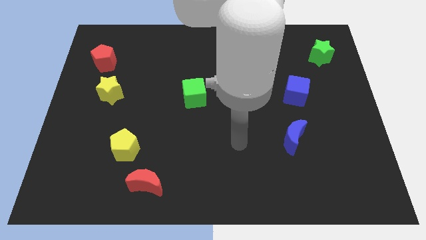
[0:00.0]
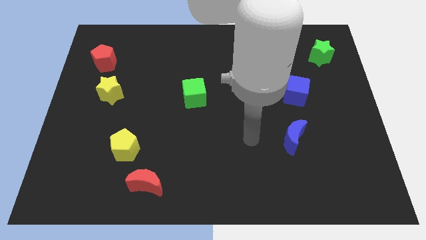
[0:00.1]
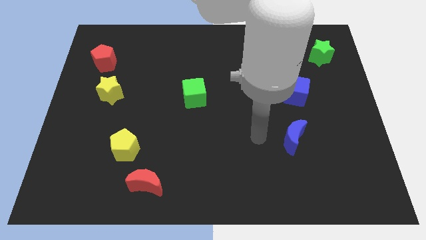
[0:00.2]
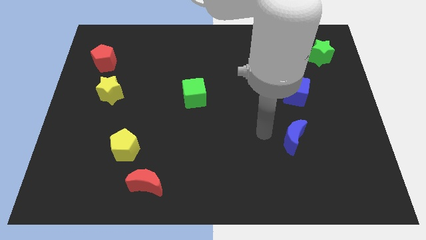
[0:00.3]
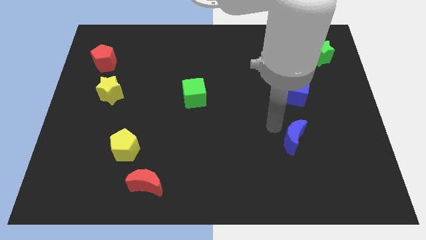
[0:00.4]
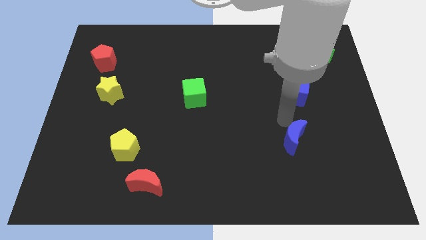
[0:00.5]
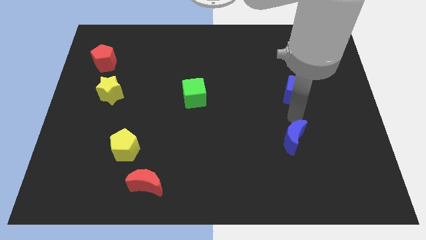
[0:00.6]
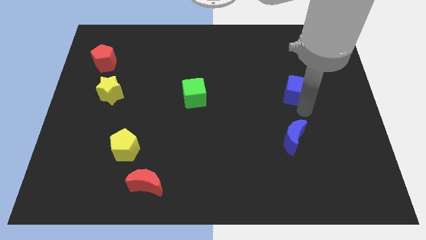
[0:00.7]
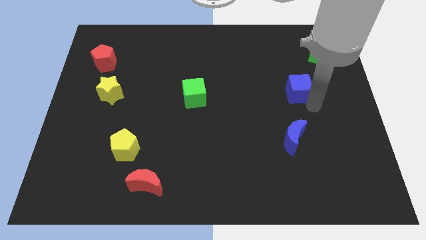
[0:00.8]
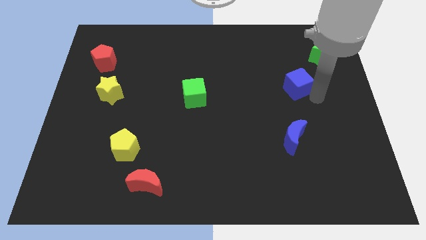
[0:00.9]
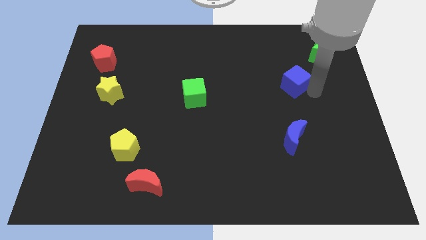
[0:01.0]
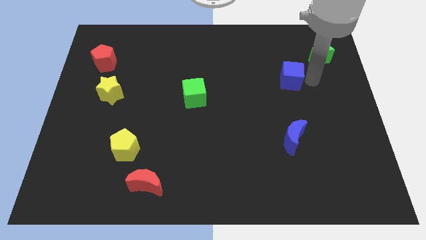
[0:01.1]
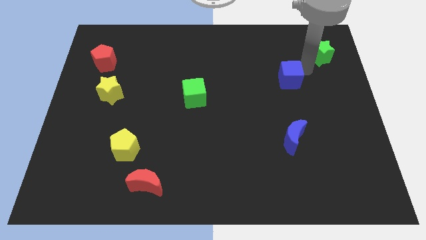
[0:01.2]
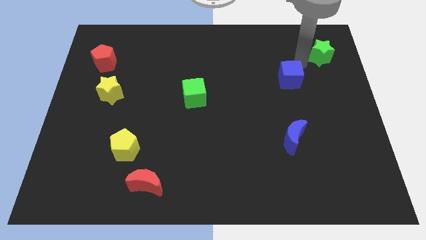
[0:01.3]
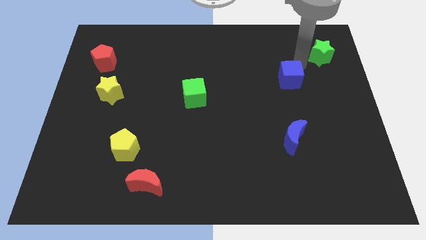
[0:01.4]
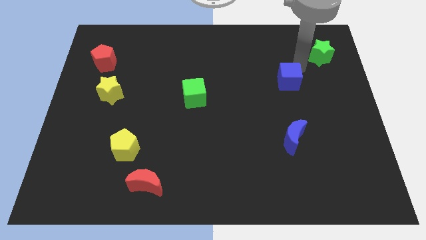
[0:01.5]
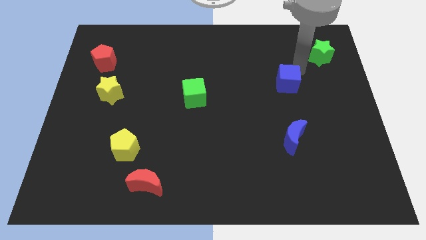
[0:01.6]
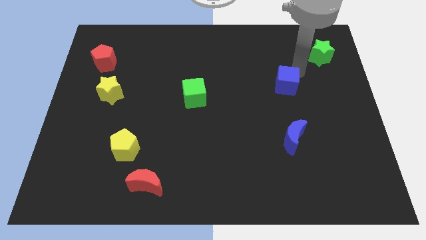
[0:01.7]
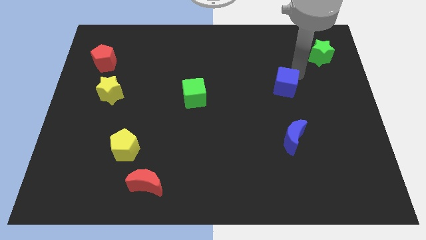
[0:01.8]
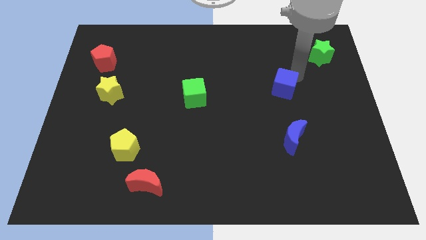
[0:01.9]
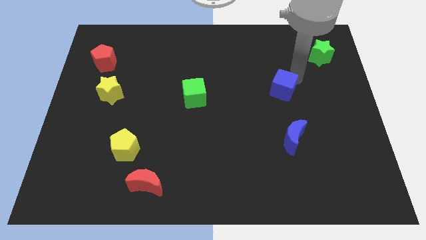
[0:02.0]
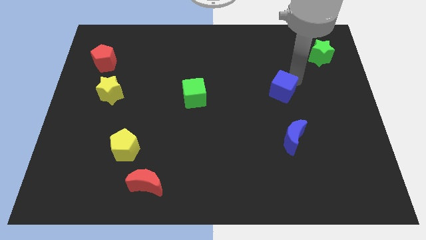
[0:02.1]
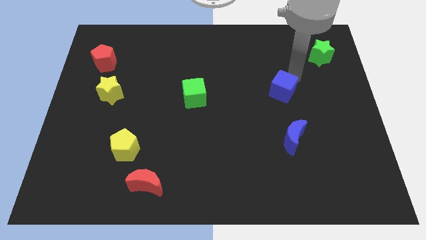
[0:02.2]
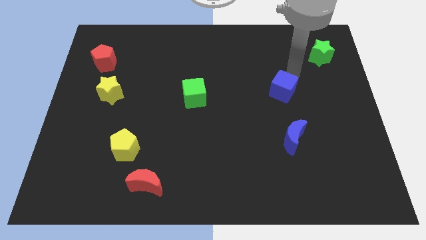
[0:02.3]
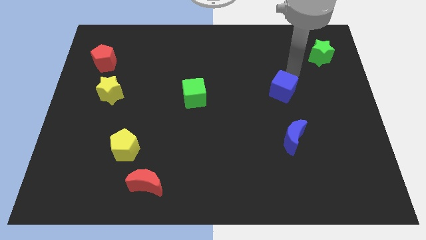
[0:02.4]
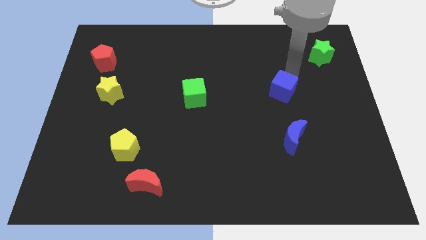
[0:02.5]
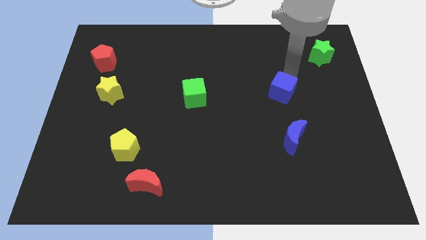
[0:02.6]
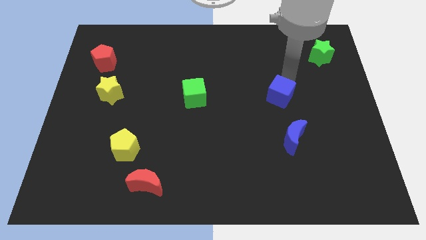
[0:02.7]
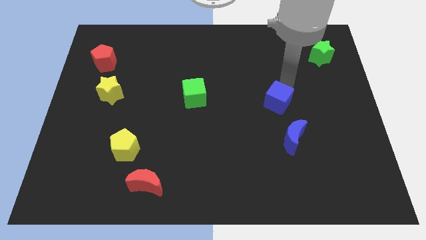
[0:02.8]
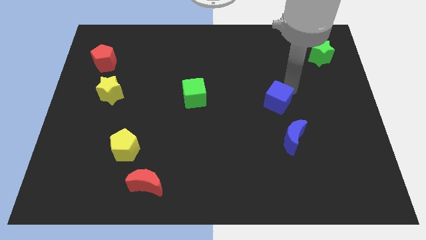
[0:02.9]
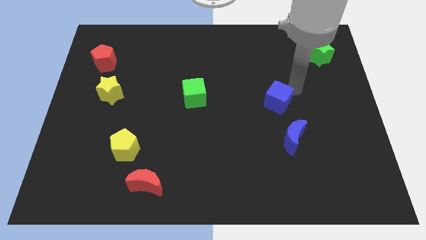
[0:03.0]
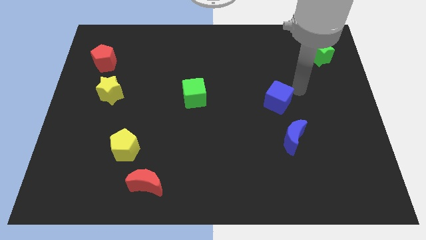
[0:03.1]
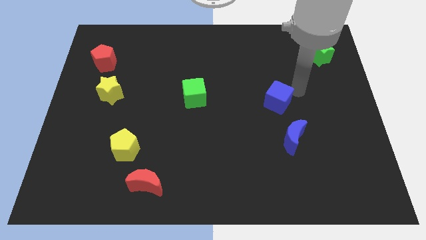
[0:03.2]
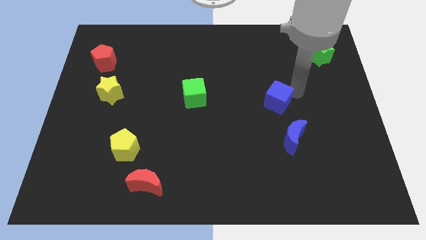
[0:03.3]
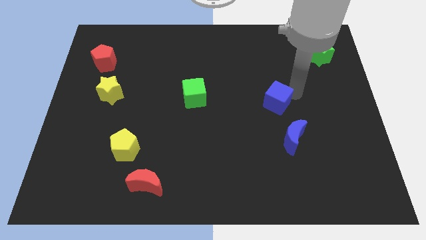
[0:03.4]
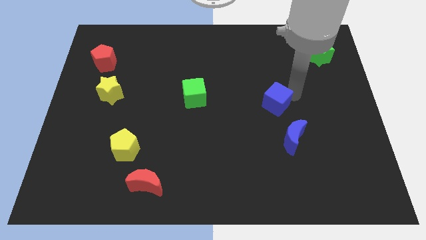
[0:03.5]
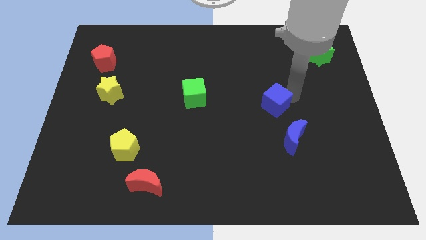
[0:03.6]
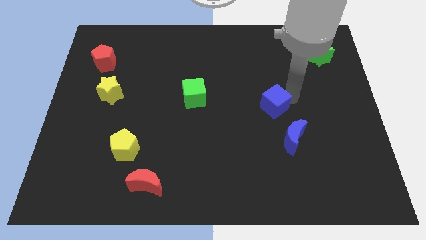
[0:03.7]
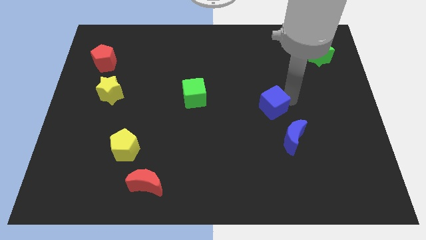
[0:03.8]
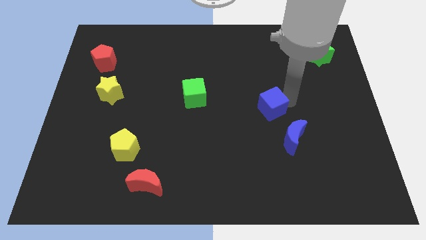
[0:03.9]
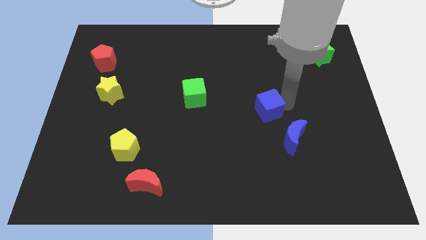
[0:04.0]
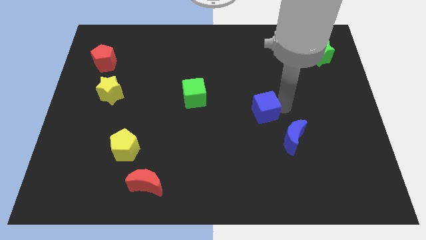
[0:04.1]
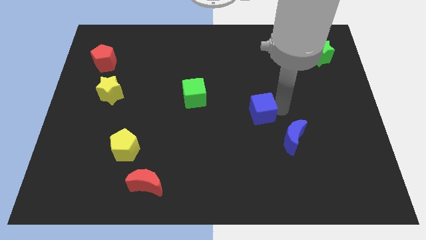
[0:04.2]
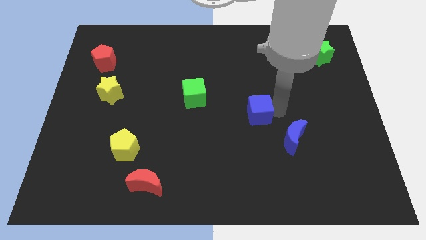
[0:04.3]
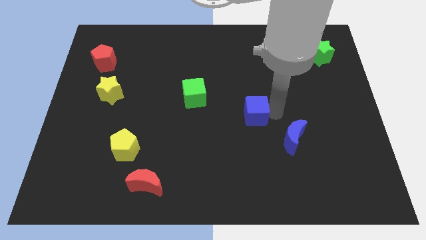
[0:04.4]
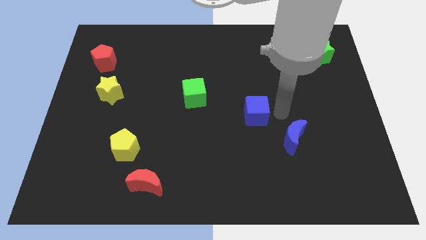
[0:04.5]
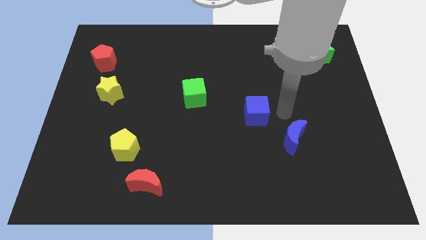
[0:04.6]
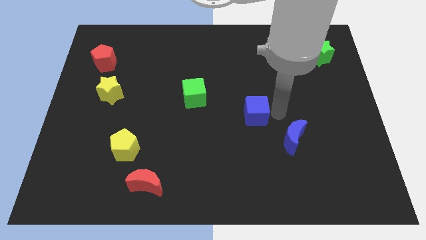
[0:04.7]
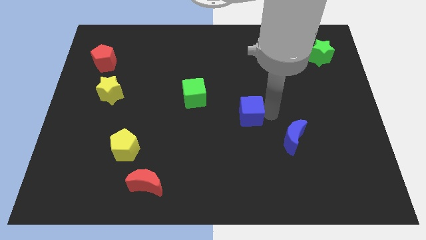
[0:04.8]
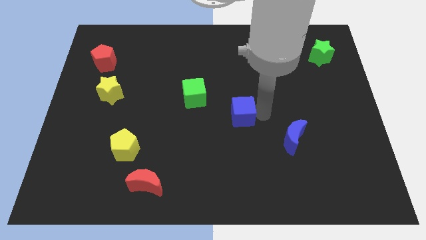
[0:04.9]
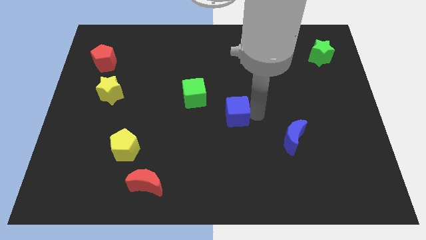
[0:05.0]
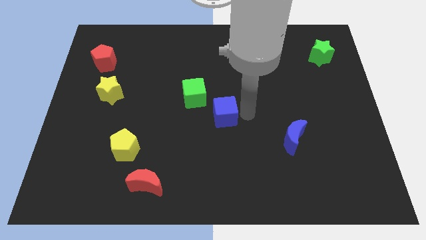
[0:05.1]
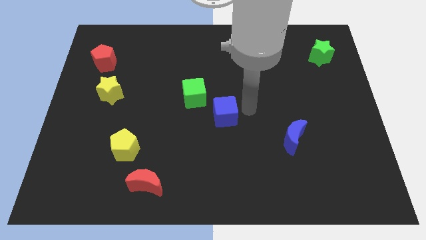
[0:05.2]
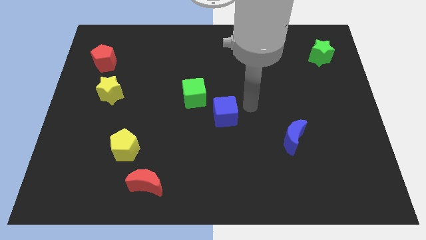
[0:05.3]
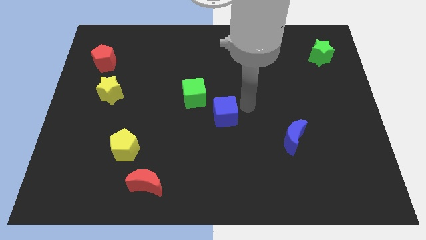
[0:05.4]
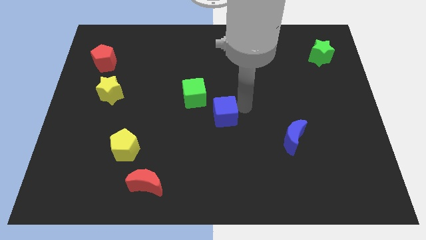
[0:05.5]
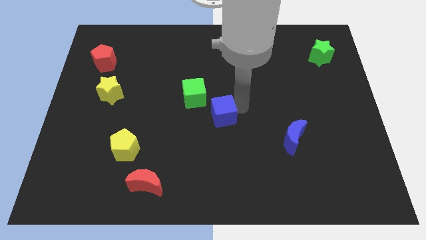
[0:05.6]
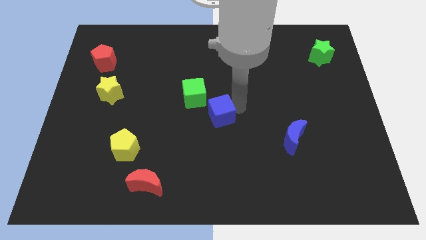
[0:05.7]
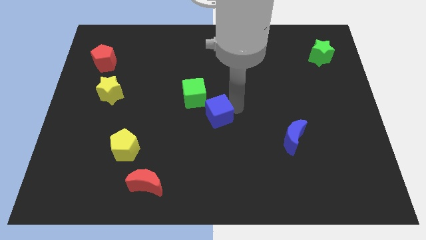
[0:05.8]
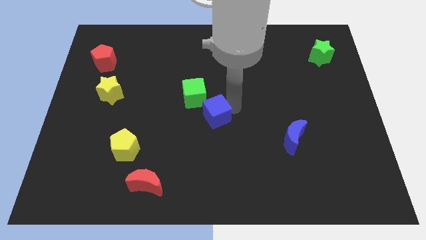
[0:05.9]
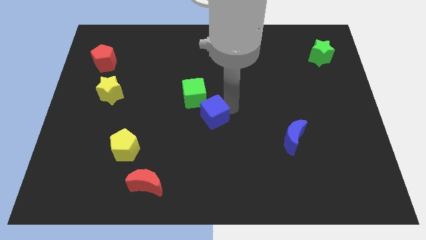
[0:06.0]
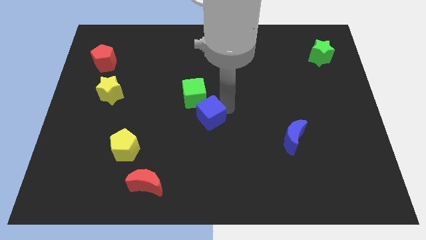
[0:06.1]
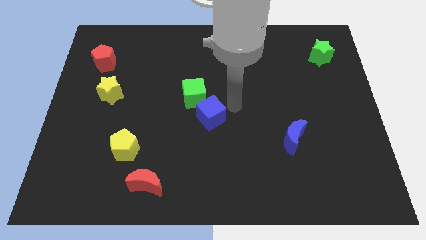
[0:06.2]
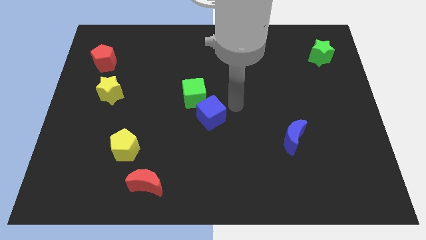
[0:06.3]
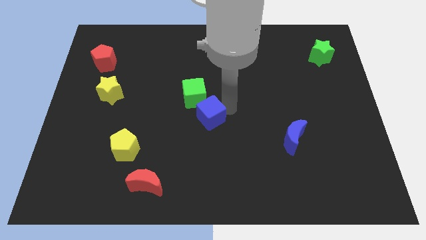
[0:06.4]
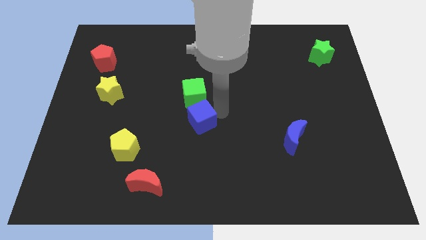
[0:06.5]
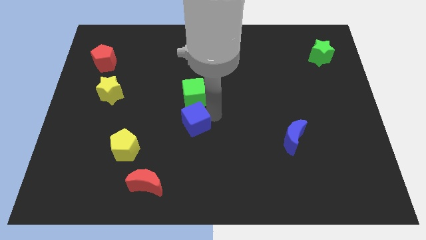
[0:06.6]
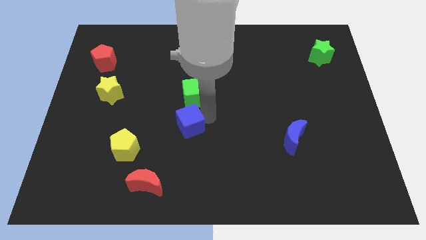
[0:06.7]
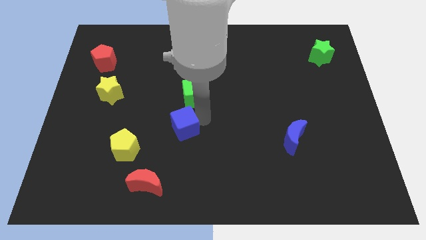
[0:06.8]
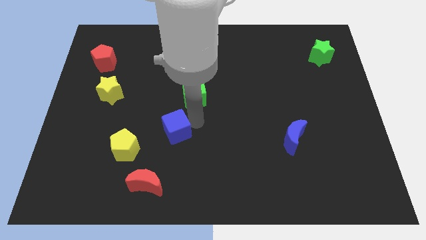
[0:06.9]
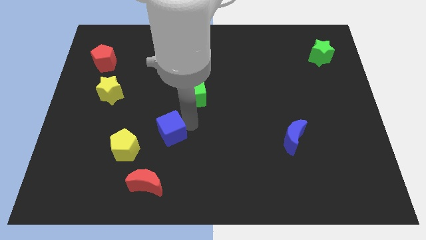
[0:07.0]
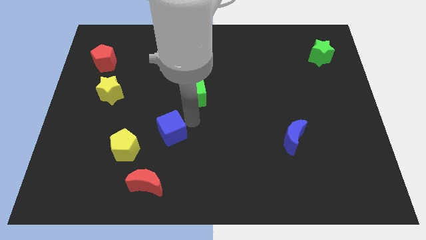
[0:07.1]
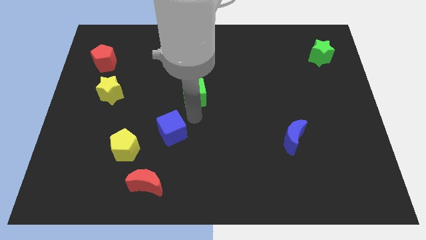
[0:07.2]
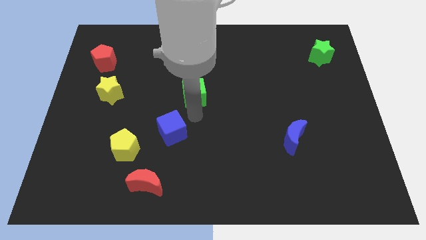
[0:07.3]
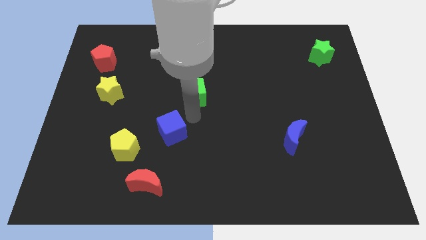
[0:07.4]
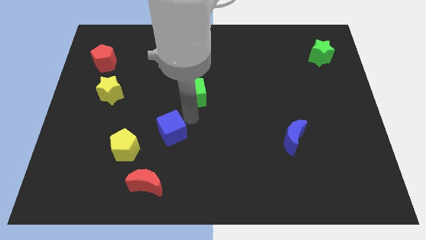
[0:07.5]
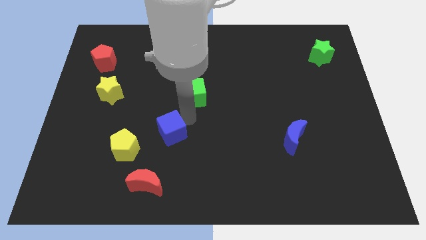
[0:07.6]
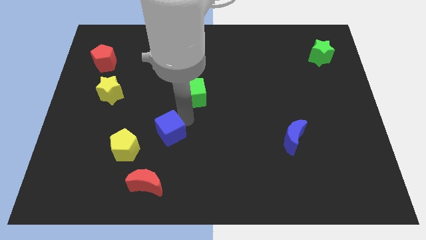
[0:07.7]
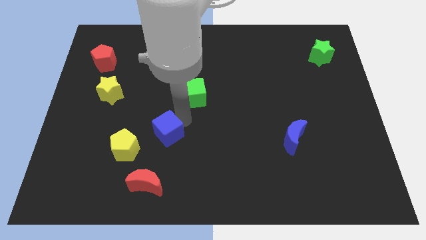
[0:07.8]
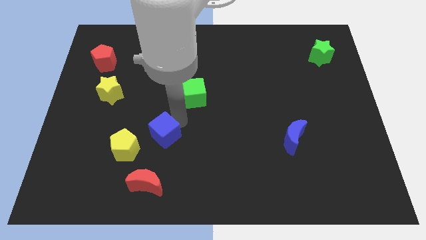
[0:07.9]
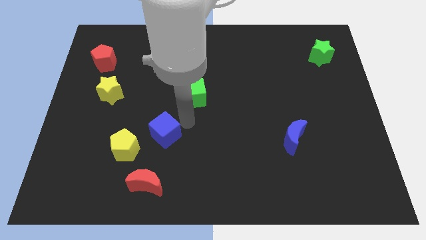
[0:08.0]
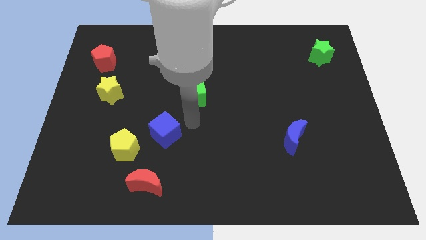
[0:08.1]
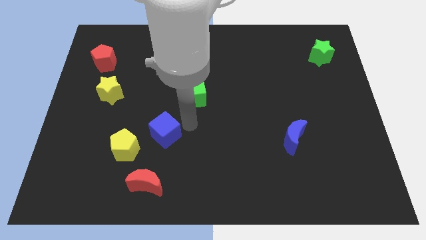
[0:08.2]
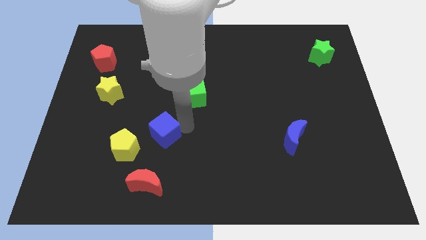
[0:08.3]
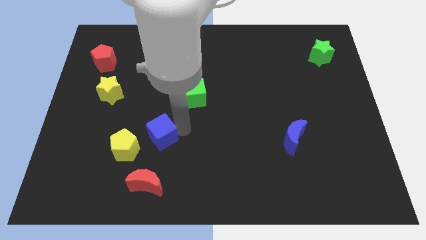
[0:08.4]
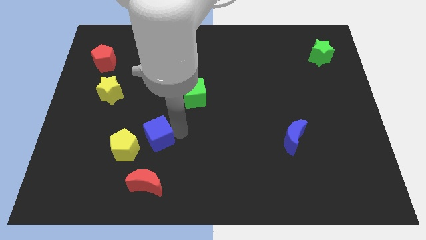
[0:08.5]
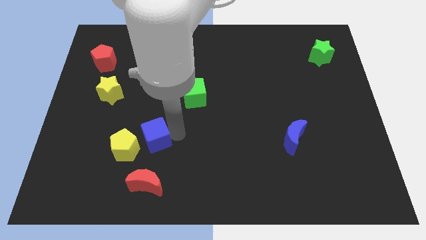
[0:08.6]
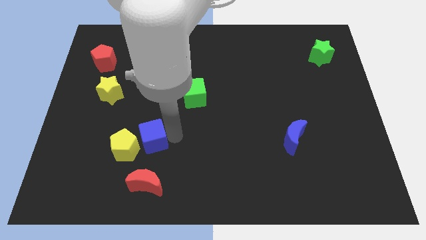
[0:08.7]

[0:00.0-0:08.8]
push the blue cube close to the yellow pentagon
